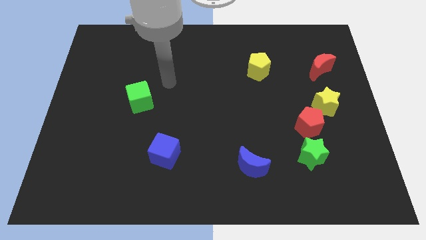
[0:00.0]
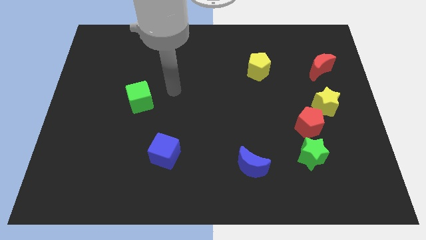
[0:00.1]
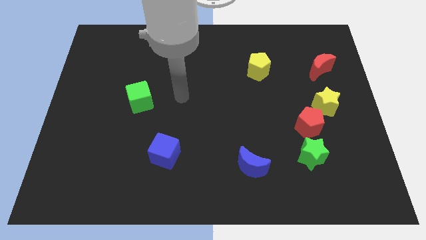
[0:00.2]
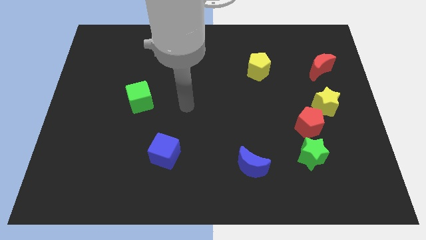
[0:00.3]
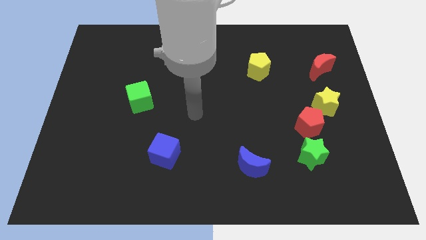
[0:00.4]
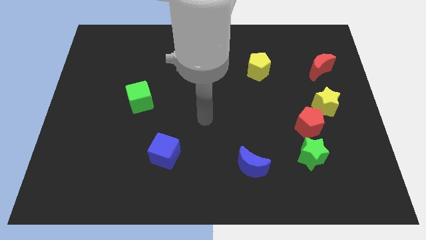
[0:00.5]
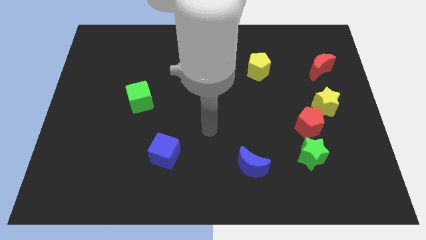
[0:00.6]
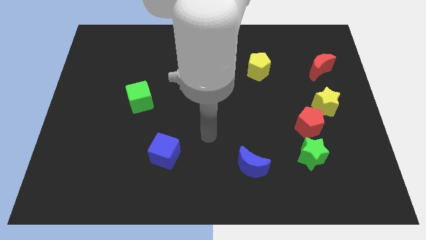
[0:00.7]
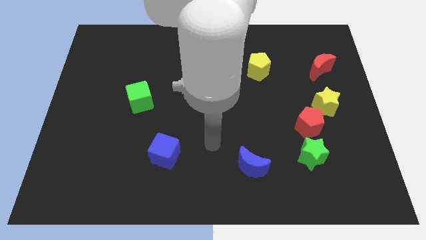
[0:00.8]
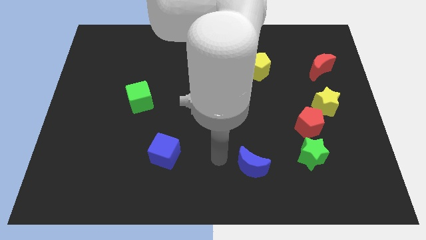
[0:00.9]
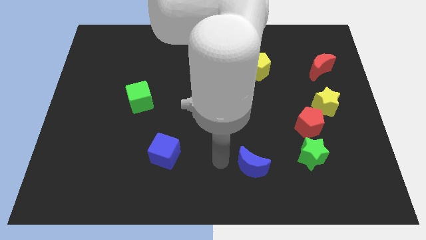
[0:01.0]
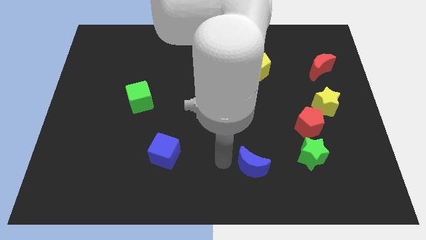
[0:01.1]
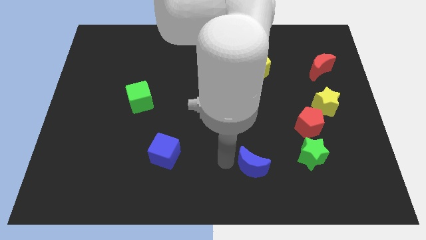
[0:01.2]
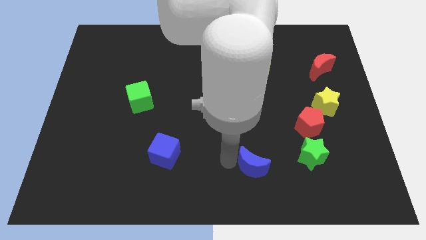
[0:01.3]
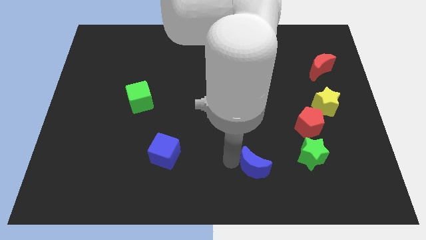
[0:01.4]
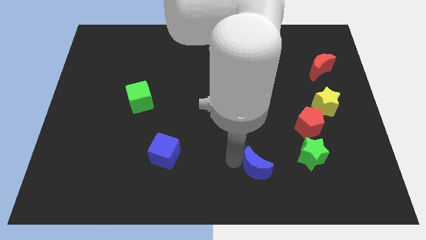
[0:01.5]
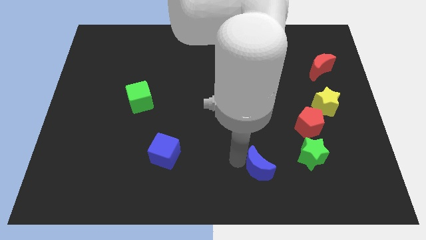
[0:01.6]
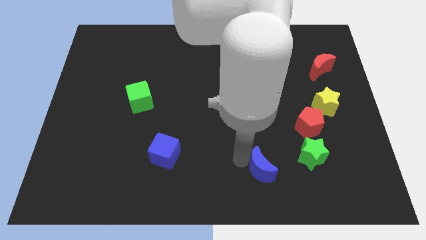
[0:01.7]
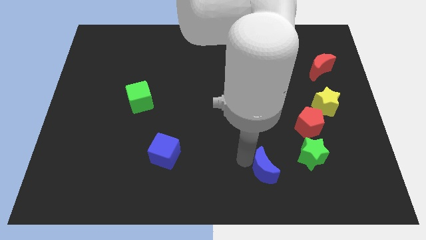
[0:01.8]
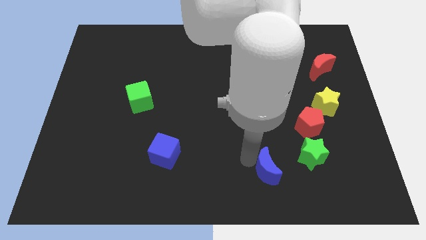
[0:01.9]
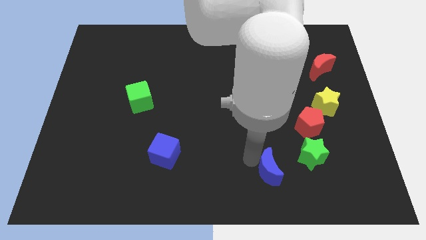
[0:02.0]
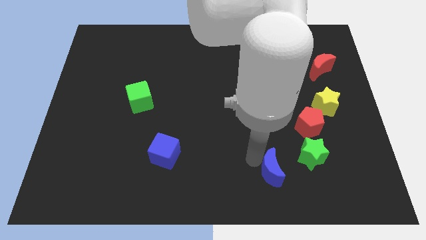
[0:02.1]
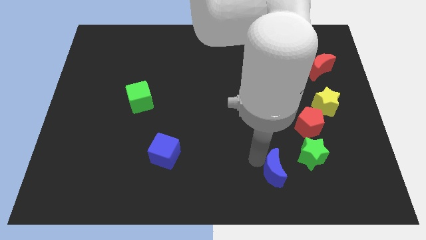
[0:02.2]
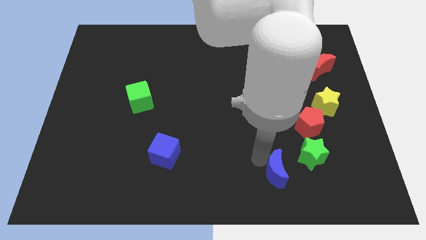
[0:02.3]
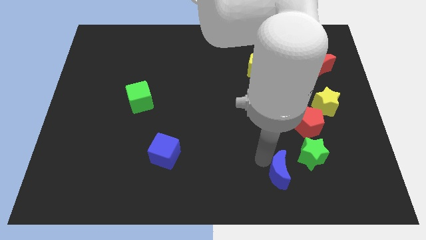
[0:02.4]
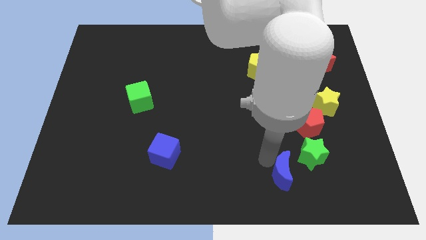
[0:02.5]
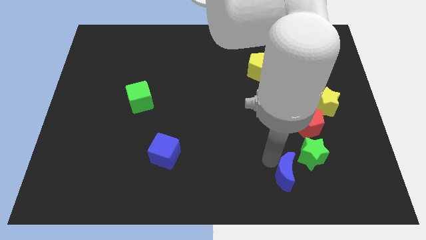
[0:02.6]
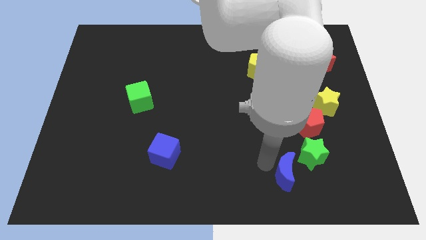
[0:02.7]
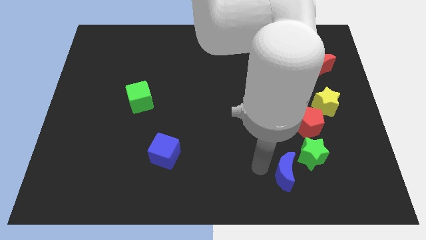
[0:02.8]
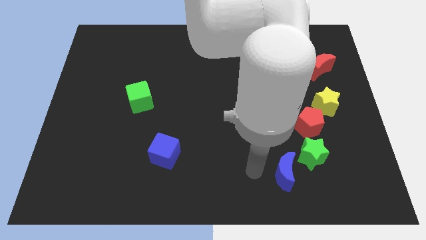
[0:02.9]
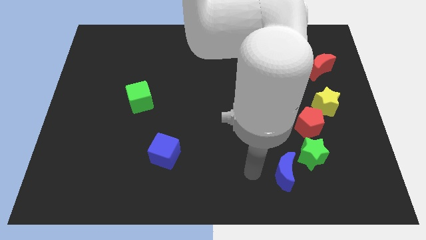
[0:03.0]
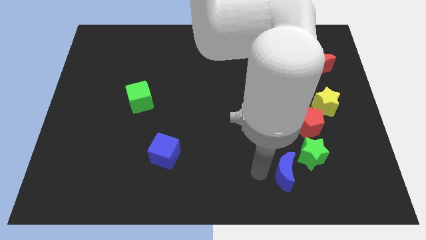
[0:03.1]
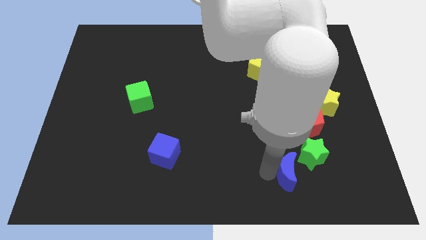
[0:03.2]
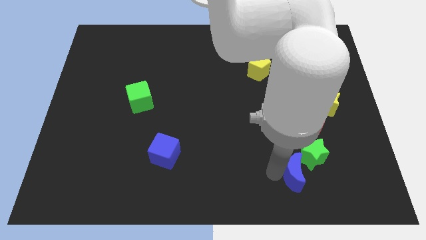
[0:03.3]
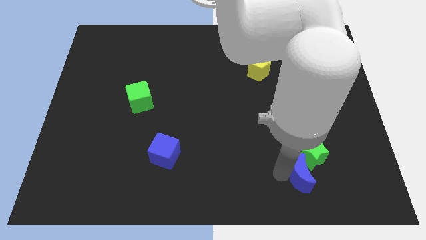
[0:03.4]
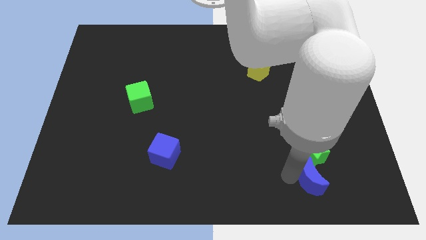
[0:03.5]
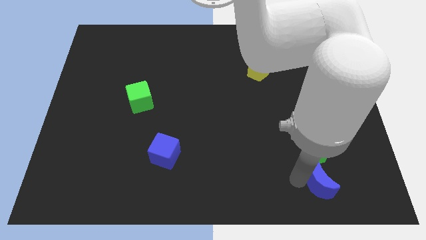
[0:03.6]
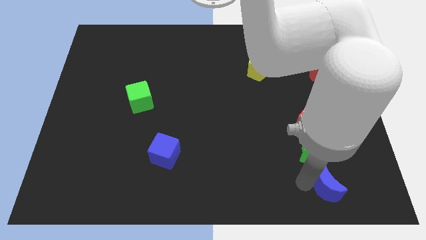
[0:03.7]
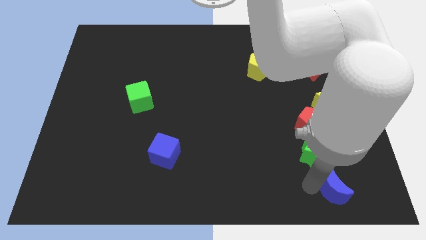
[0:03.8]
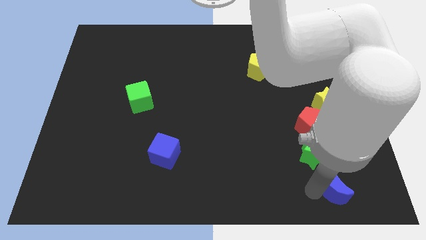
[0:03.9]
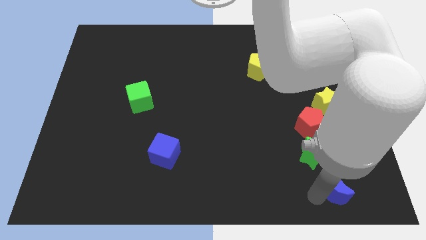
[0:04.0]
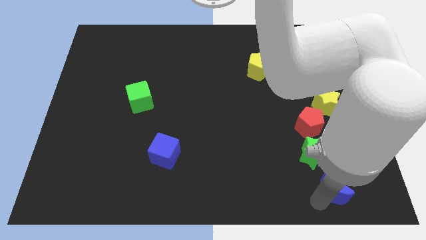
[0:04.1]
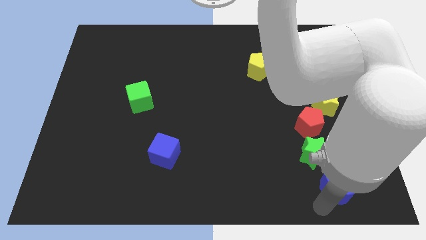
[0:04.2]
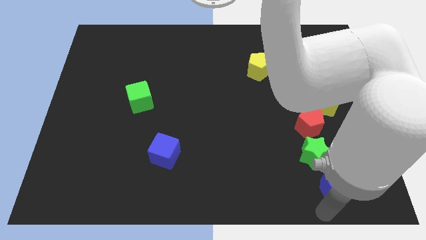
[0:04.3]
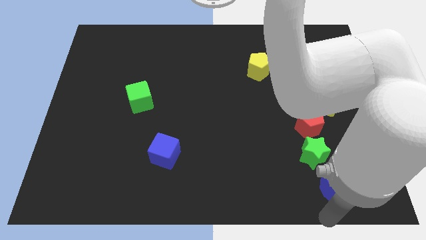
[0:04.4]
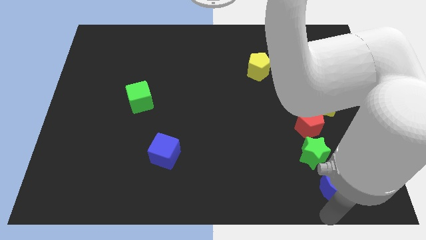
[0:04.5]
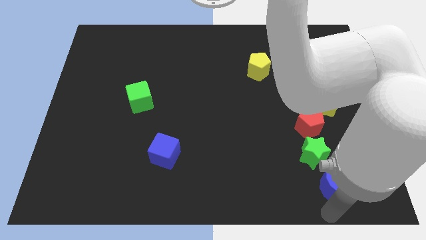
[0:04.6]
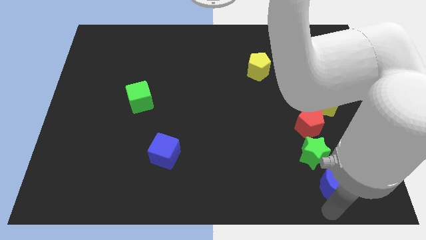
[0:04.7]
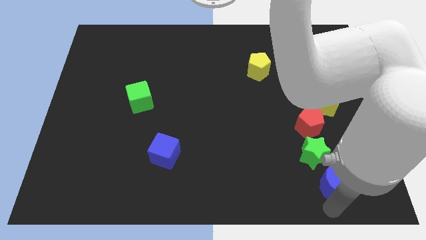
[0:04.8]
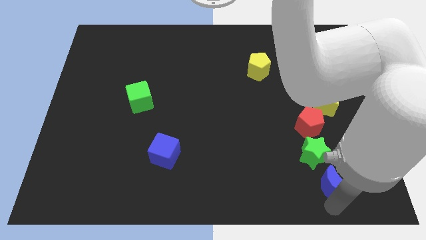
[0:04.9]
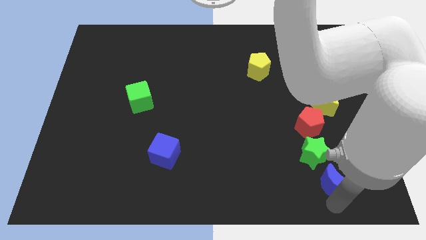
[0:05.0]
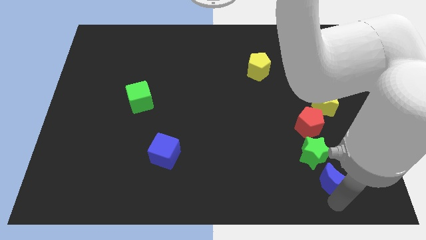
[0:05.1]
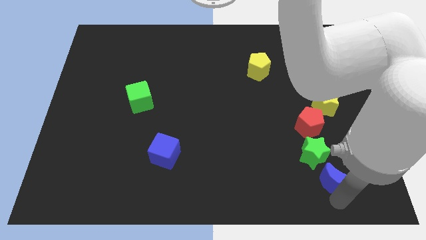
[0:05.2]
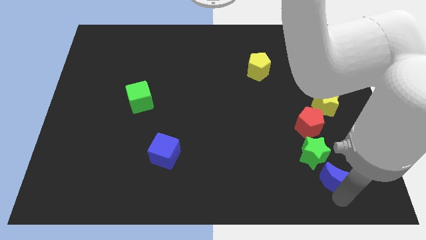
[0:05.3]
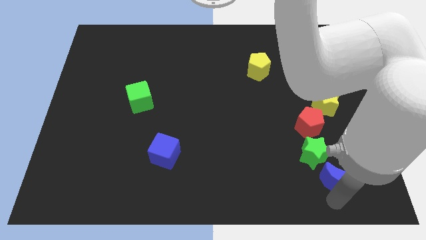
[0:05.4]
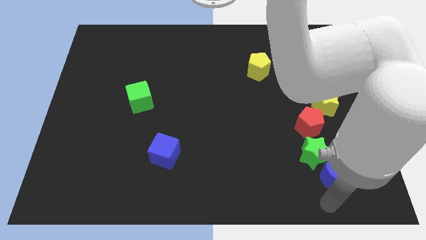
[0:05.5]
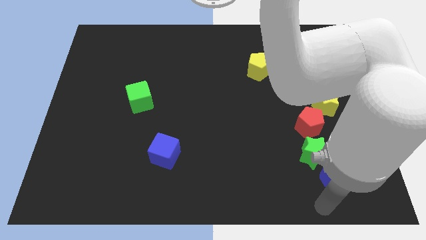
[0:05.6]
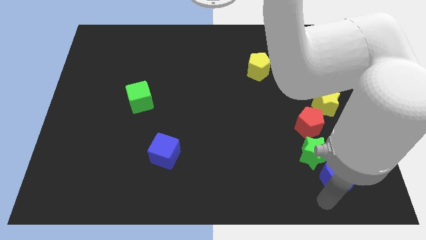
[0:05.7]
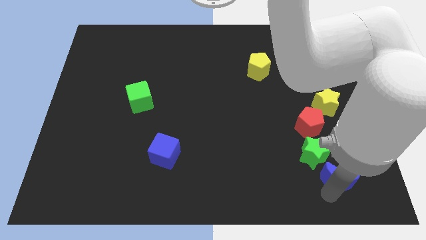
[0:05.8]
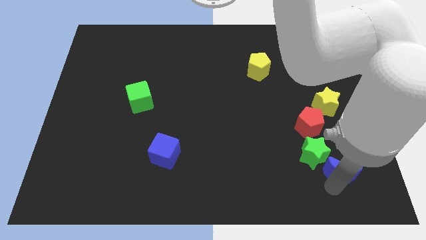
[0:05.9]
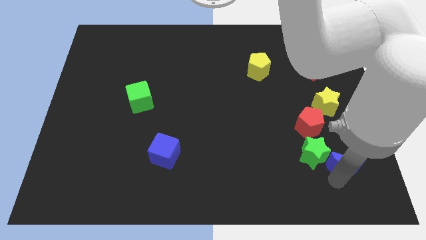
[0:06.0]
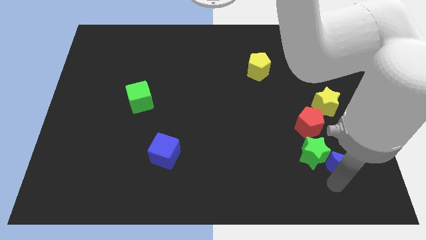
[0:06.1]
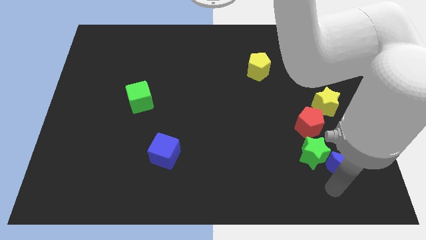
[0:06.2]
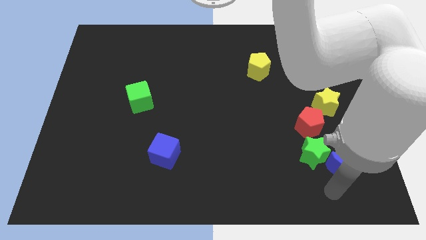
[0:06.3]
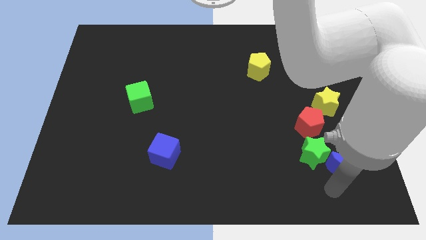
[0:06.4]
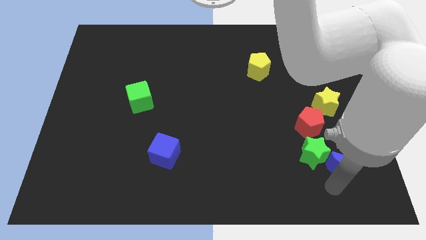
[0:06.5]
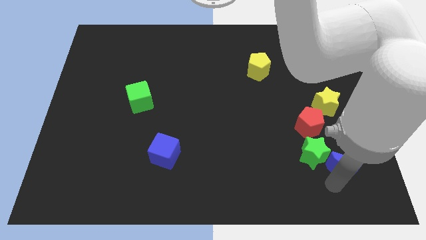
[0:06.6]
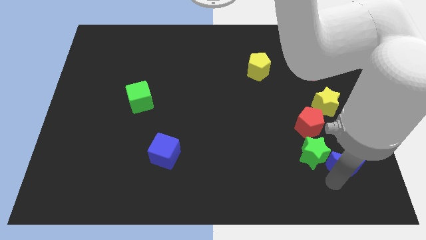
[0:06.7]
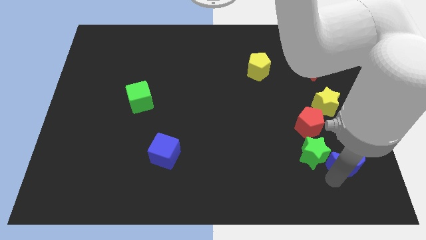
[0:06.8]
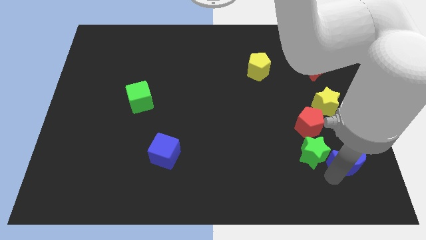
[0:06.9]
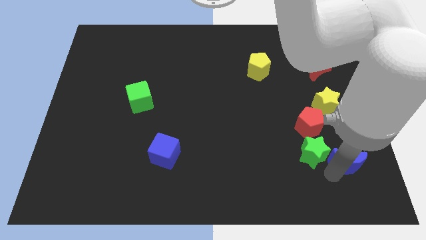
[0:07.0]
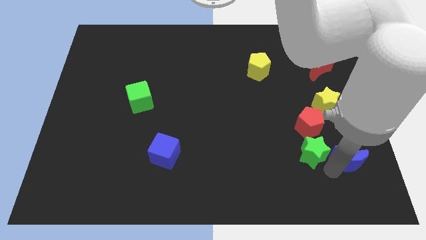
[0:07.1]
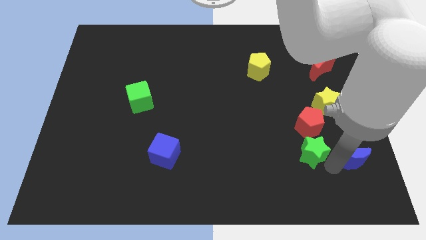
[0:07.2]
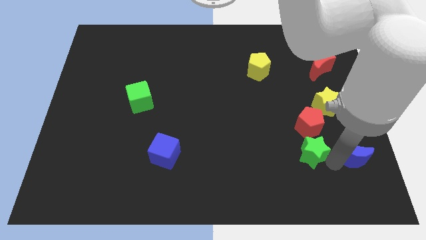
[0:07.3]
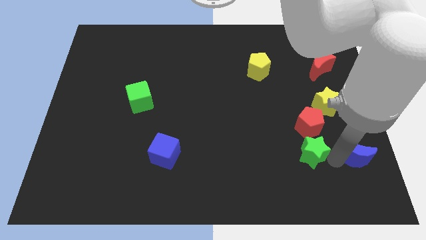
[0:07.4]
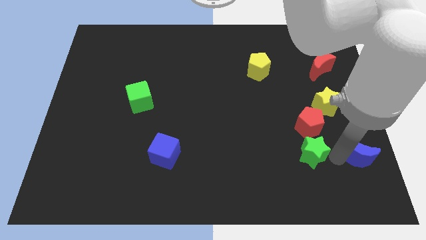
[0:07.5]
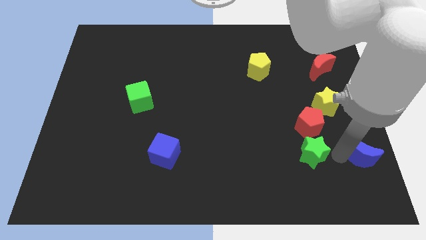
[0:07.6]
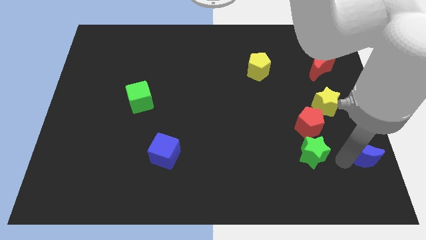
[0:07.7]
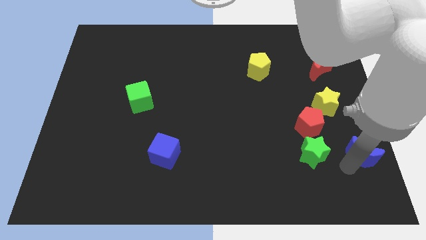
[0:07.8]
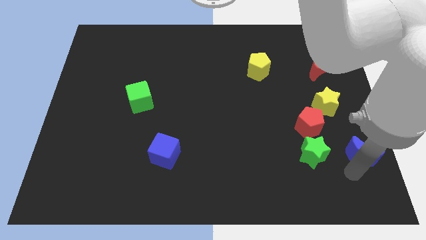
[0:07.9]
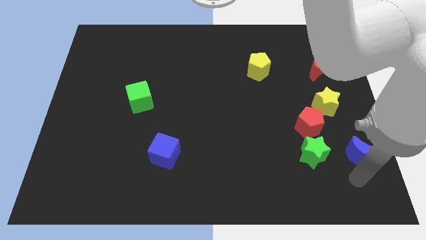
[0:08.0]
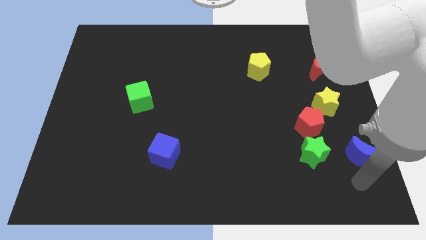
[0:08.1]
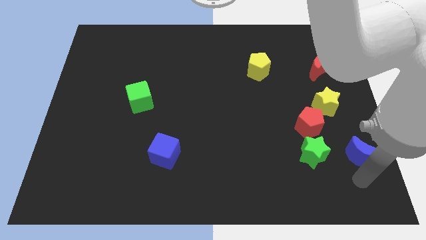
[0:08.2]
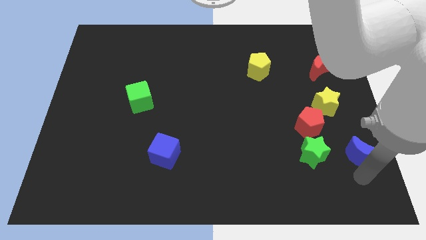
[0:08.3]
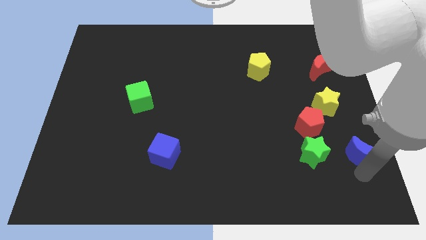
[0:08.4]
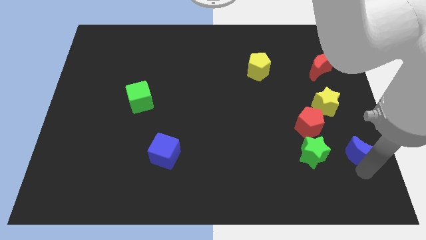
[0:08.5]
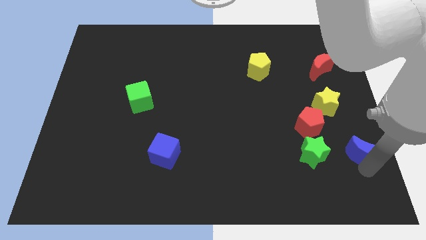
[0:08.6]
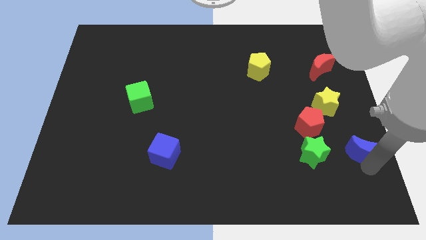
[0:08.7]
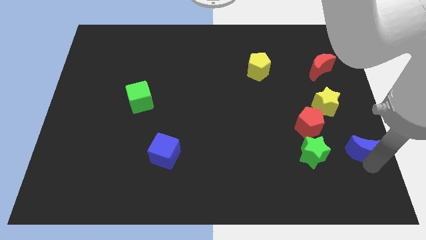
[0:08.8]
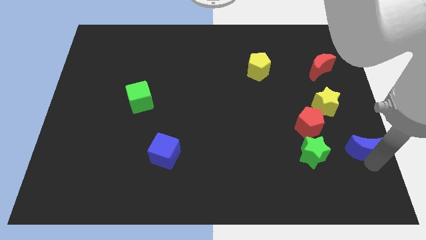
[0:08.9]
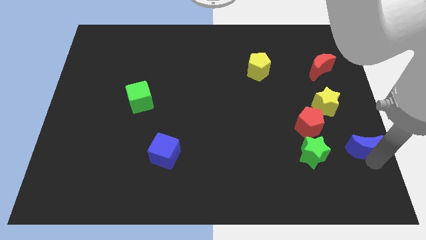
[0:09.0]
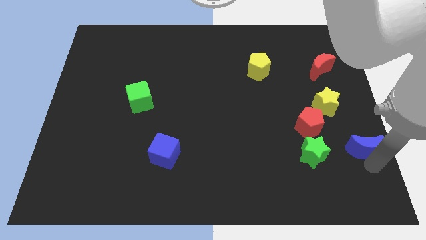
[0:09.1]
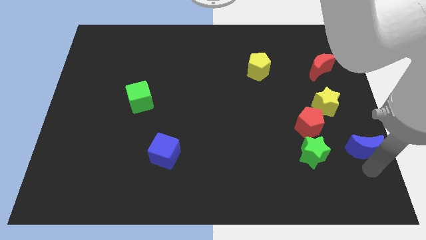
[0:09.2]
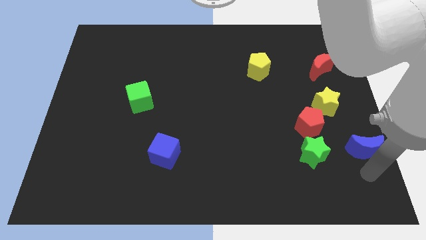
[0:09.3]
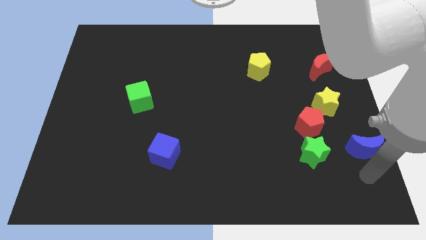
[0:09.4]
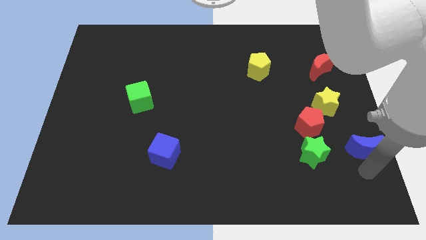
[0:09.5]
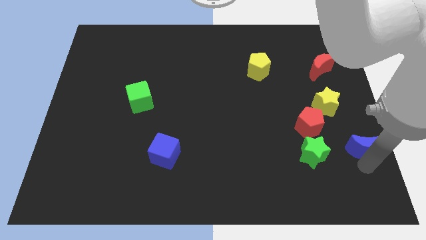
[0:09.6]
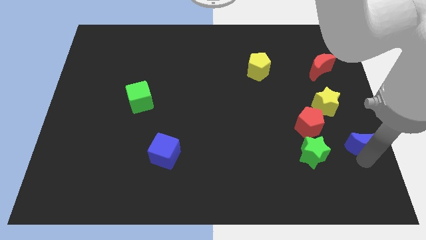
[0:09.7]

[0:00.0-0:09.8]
push the blue moon to the right side
